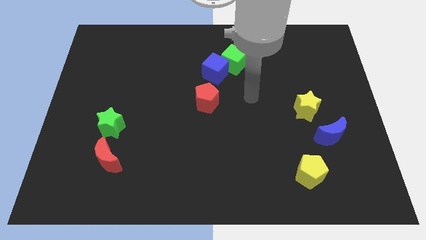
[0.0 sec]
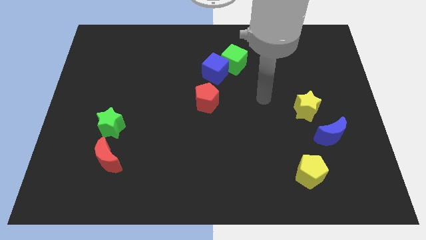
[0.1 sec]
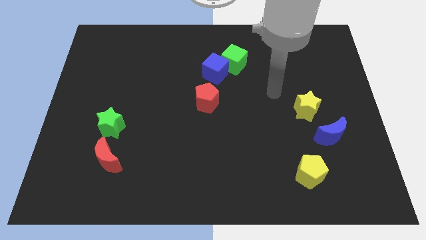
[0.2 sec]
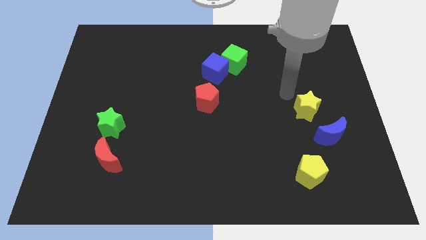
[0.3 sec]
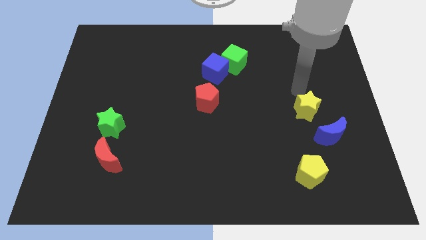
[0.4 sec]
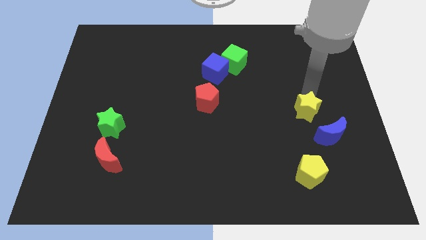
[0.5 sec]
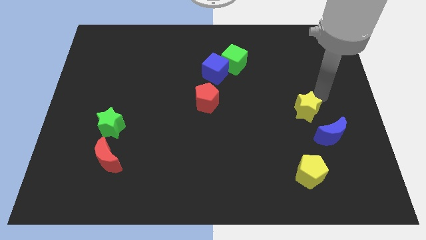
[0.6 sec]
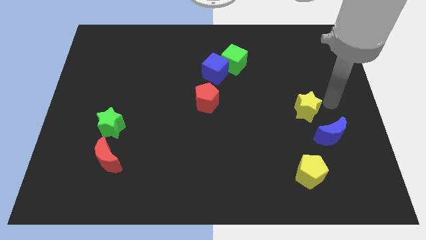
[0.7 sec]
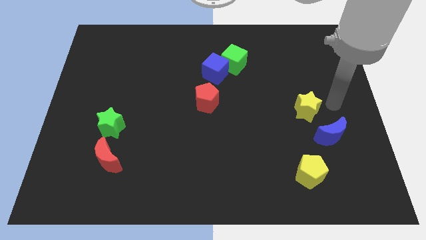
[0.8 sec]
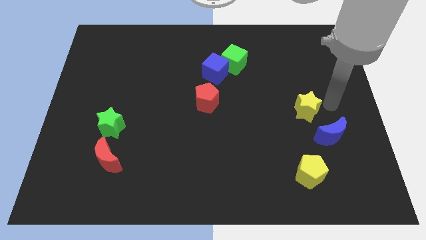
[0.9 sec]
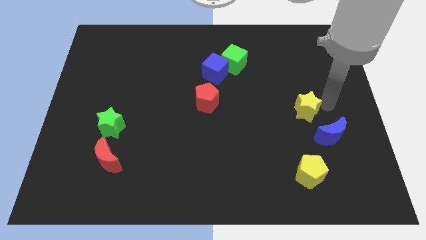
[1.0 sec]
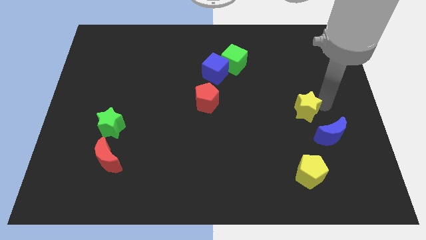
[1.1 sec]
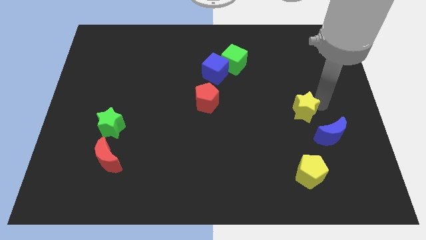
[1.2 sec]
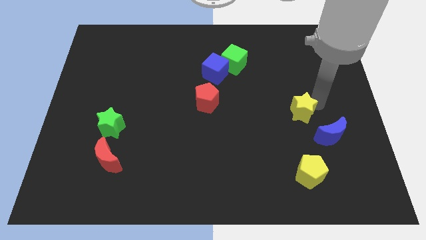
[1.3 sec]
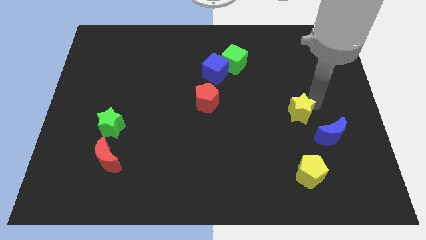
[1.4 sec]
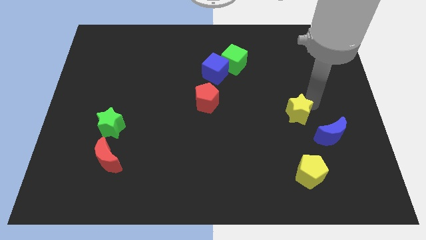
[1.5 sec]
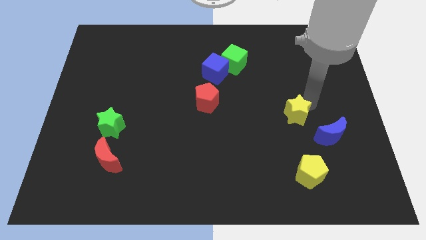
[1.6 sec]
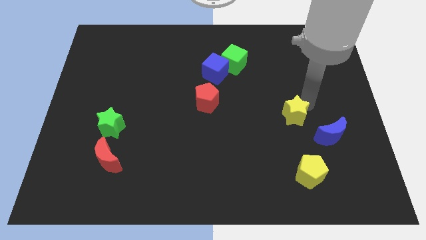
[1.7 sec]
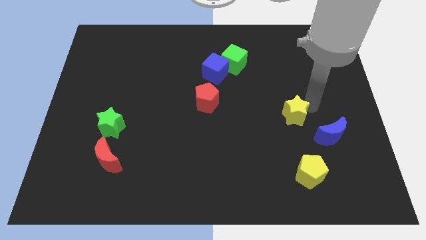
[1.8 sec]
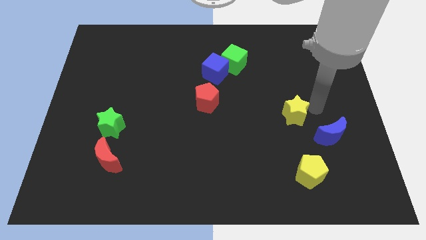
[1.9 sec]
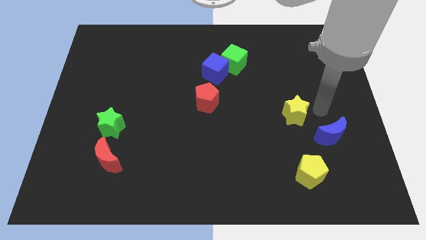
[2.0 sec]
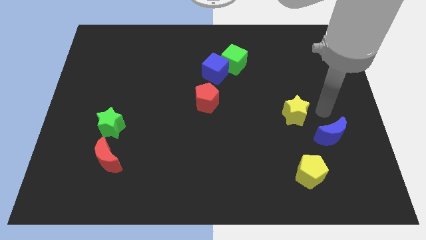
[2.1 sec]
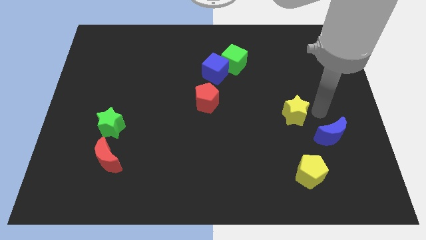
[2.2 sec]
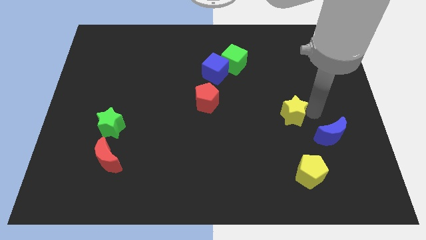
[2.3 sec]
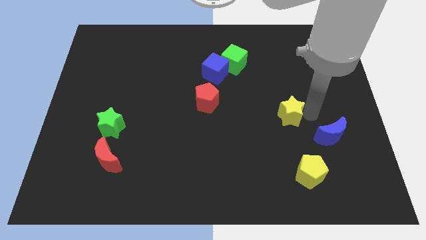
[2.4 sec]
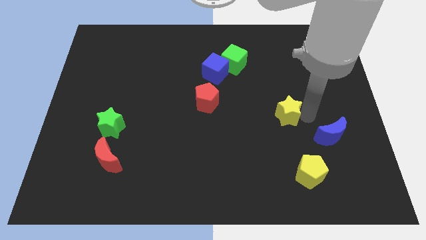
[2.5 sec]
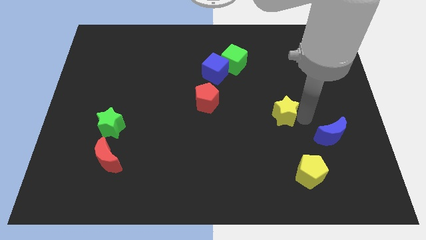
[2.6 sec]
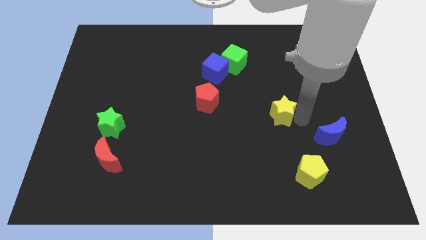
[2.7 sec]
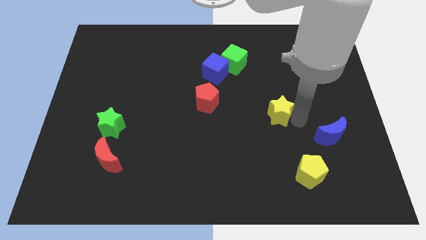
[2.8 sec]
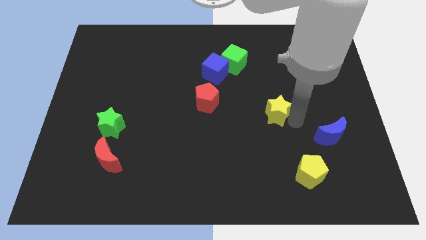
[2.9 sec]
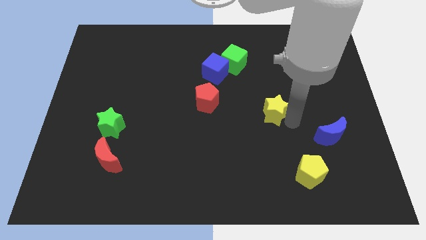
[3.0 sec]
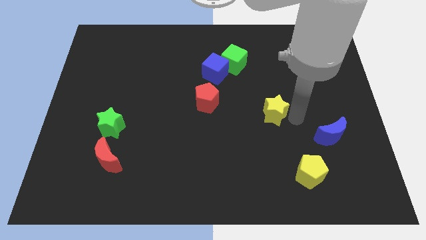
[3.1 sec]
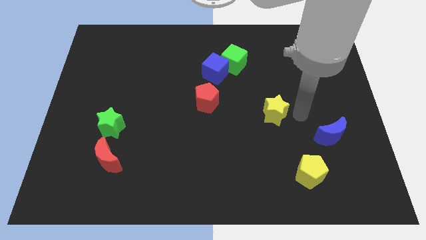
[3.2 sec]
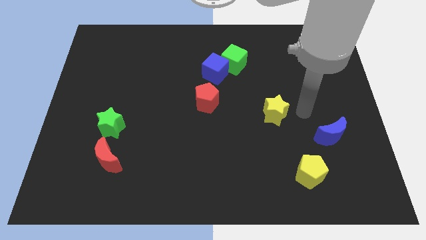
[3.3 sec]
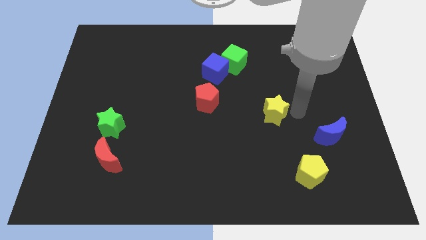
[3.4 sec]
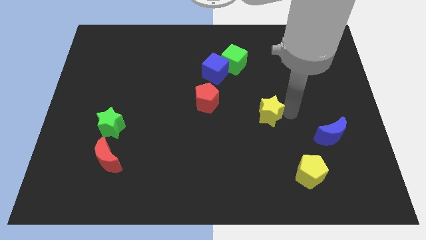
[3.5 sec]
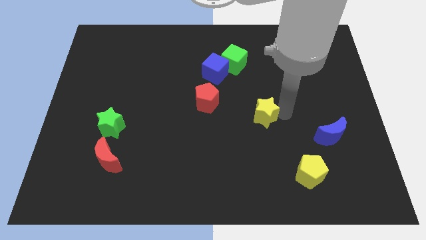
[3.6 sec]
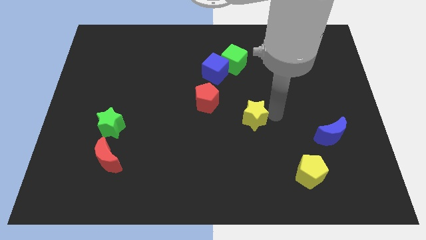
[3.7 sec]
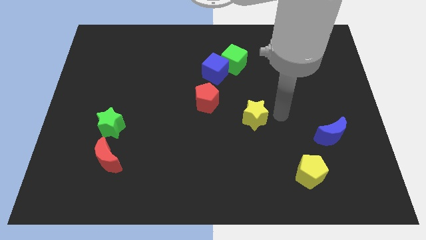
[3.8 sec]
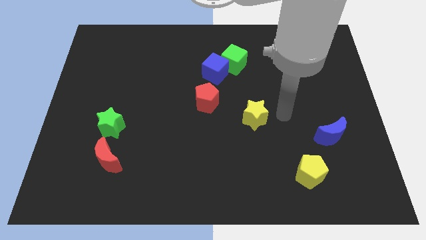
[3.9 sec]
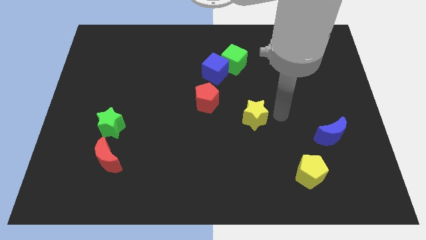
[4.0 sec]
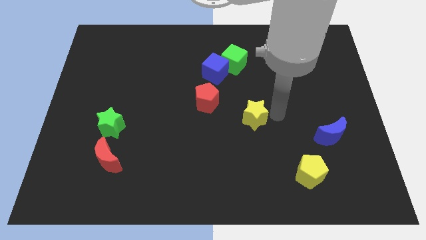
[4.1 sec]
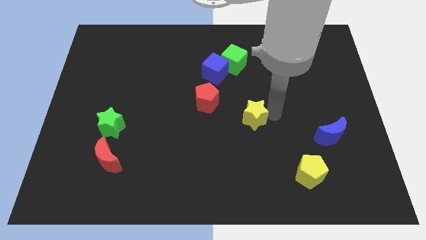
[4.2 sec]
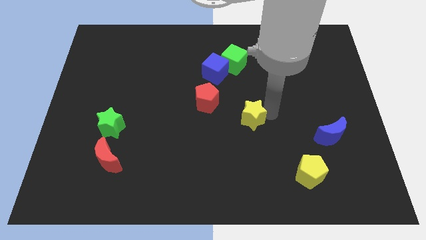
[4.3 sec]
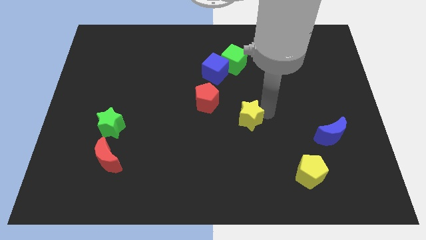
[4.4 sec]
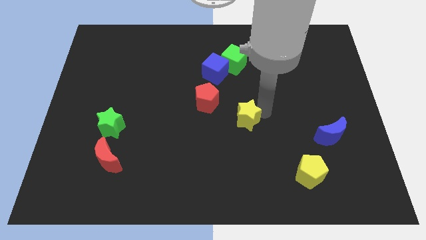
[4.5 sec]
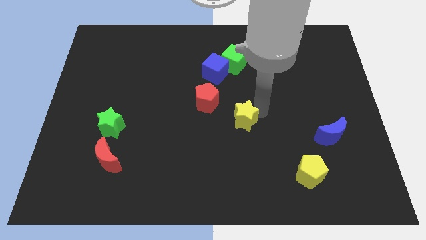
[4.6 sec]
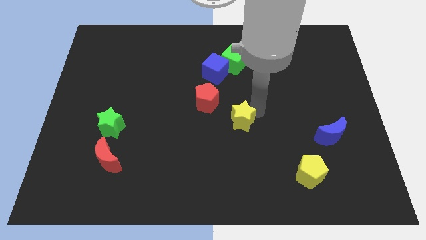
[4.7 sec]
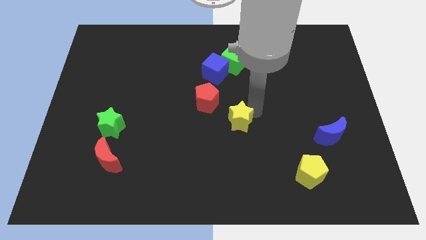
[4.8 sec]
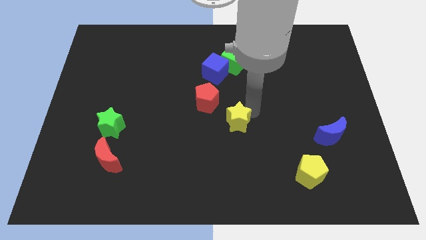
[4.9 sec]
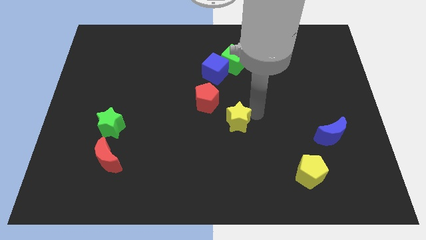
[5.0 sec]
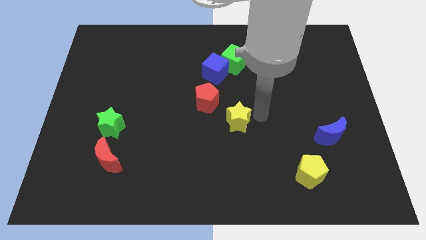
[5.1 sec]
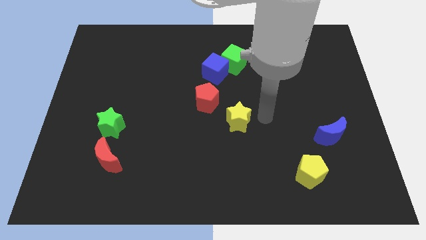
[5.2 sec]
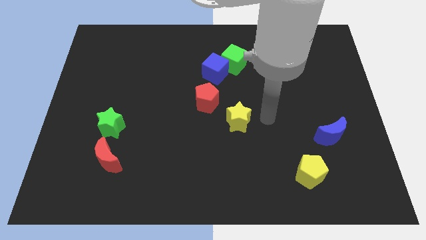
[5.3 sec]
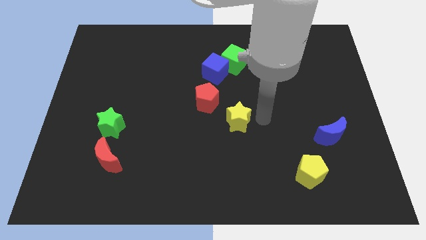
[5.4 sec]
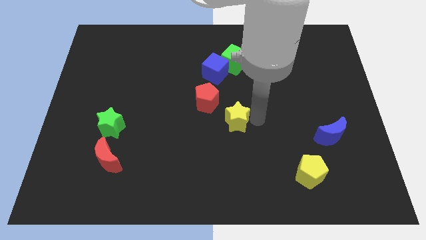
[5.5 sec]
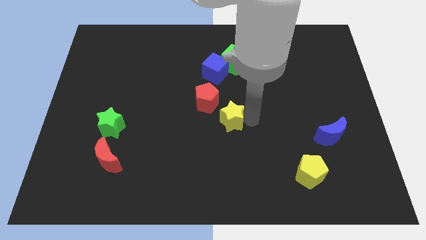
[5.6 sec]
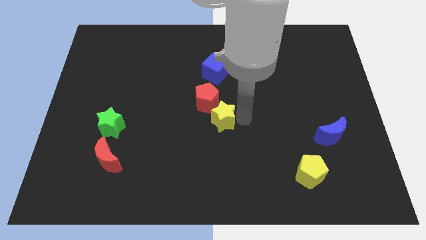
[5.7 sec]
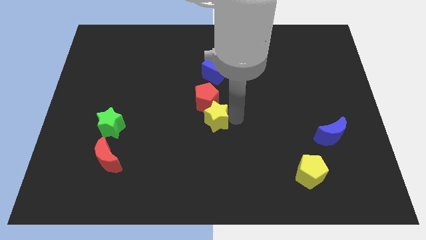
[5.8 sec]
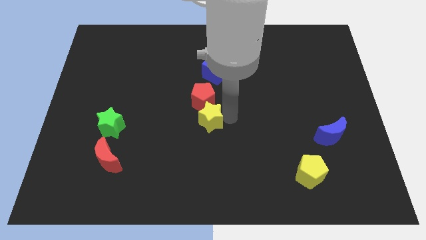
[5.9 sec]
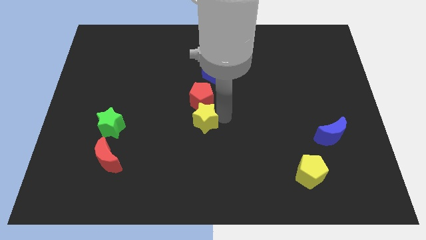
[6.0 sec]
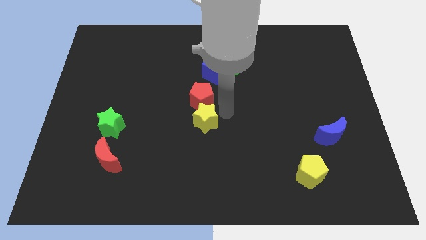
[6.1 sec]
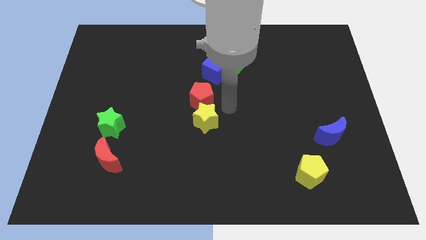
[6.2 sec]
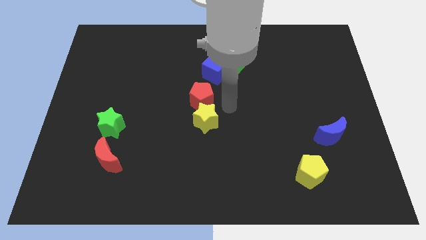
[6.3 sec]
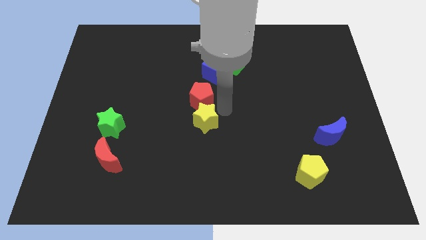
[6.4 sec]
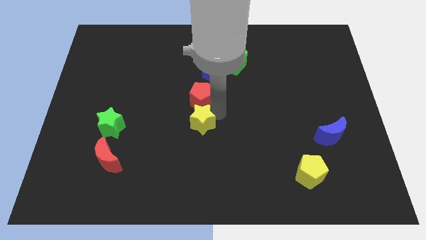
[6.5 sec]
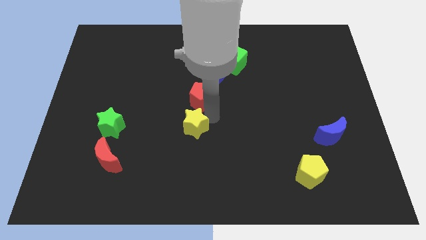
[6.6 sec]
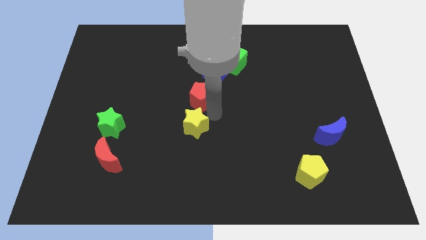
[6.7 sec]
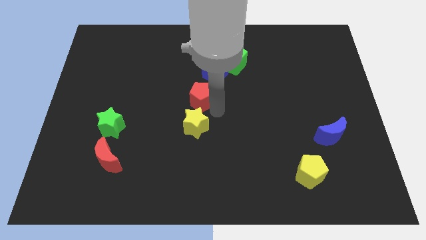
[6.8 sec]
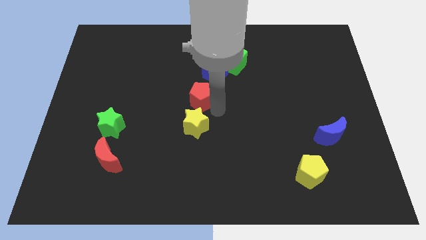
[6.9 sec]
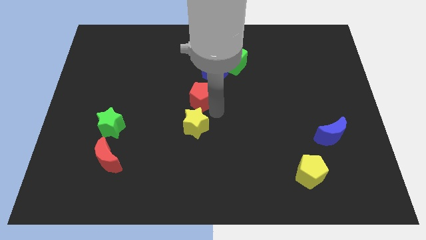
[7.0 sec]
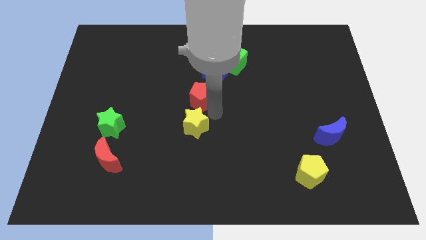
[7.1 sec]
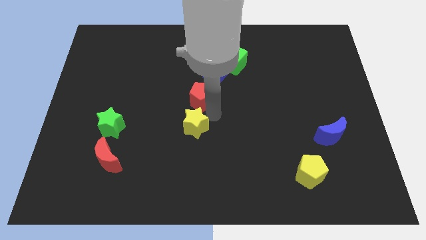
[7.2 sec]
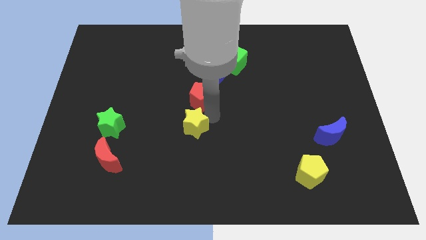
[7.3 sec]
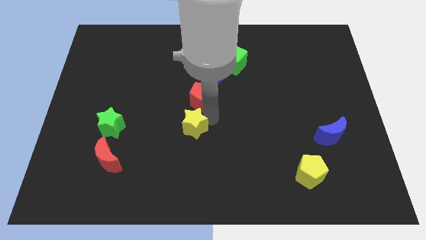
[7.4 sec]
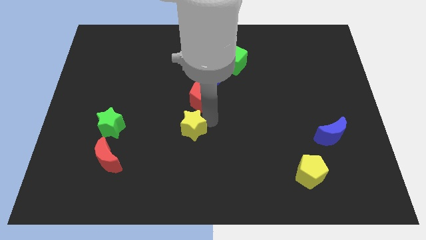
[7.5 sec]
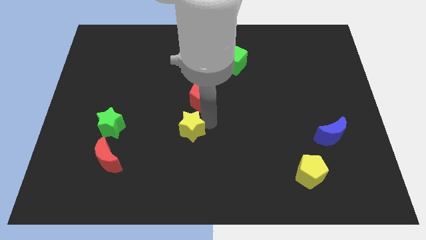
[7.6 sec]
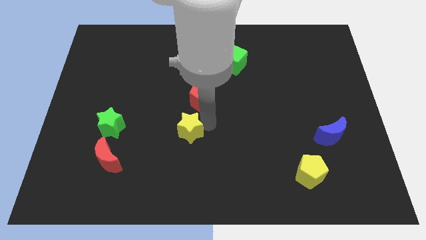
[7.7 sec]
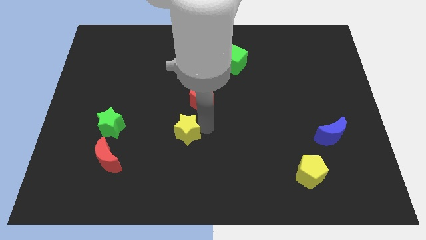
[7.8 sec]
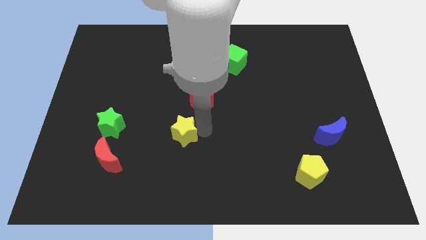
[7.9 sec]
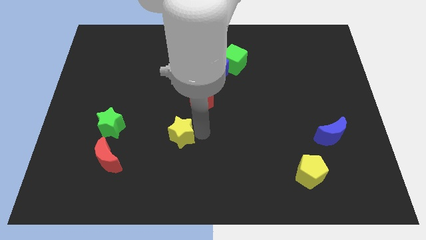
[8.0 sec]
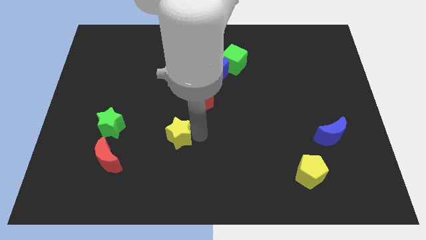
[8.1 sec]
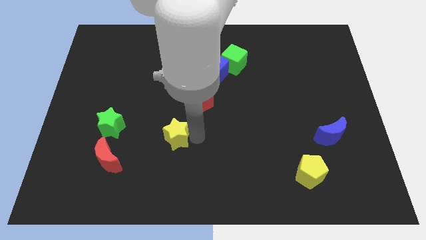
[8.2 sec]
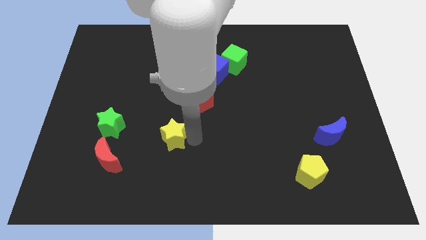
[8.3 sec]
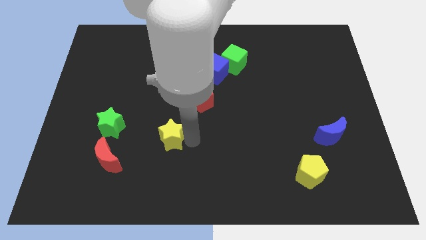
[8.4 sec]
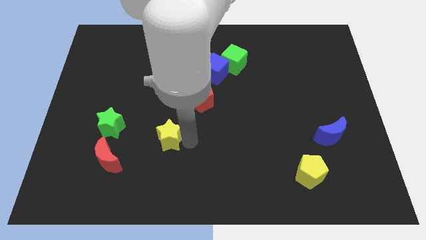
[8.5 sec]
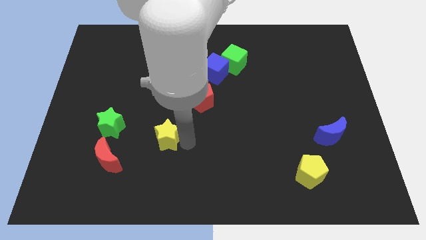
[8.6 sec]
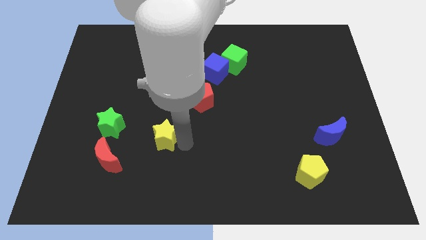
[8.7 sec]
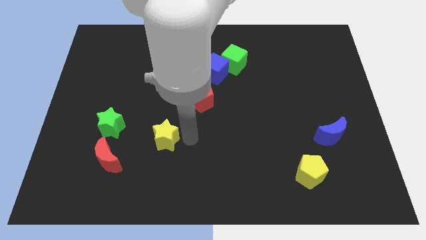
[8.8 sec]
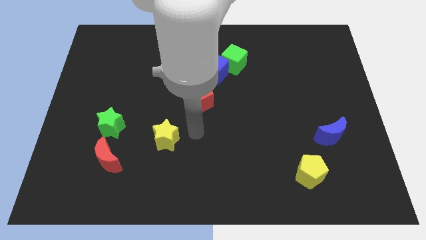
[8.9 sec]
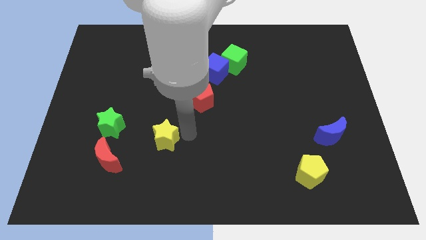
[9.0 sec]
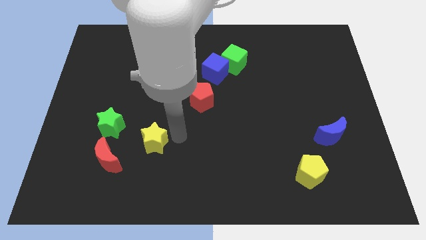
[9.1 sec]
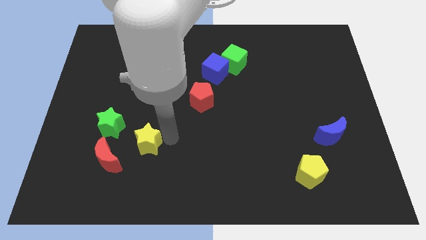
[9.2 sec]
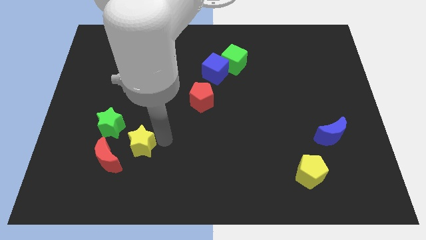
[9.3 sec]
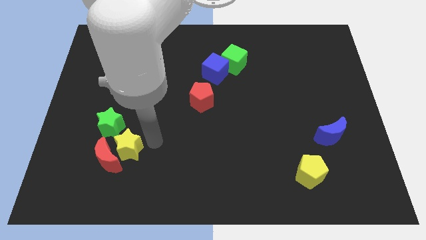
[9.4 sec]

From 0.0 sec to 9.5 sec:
move the yellow star next to the red moon
